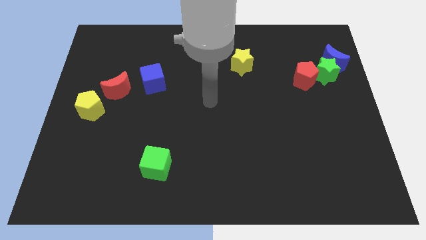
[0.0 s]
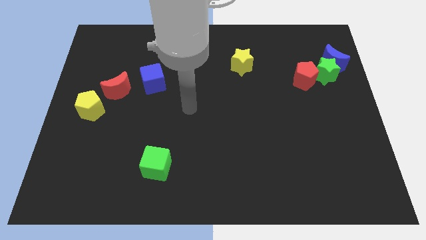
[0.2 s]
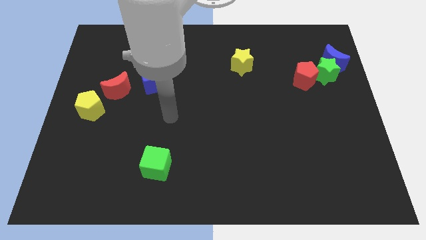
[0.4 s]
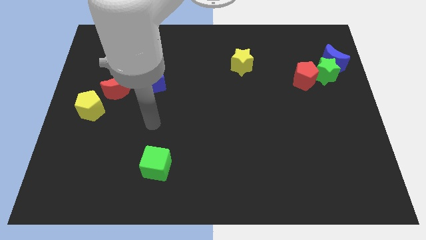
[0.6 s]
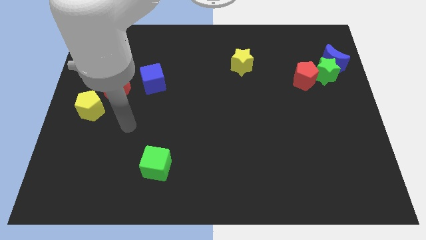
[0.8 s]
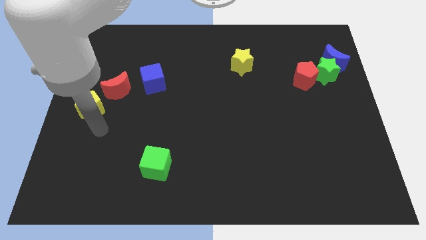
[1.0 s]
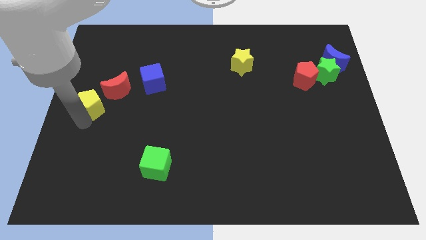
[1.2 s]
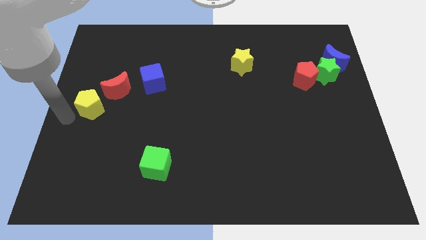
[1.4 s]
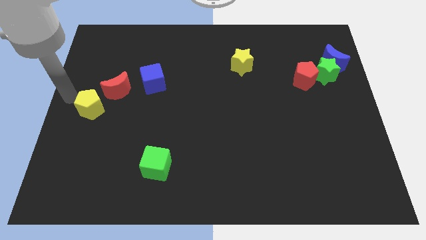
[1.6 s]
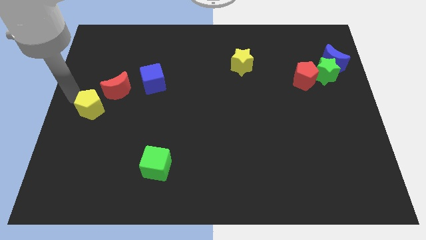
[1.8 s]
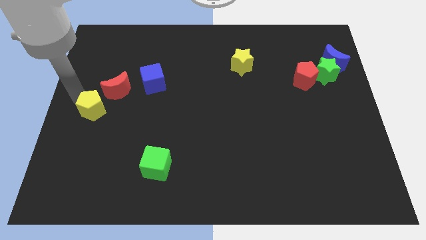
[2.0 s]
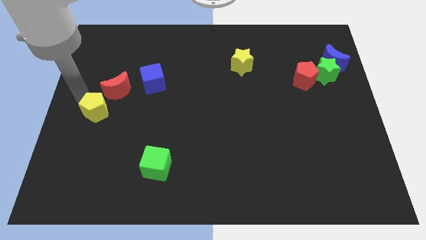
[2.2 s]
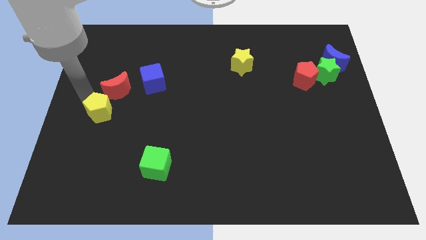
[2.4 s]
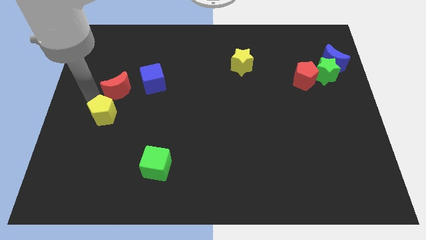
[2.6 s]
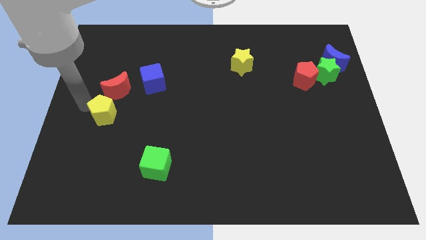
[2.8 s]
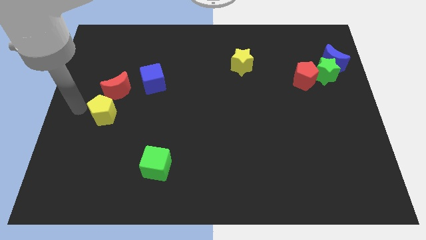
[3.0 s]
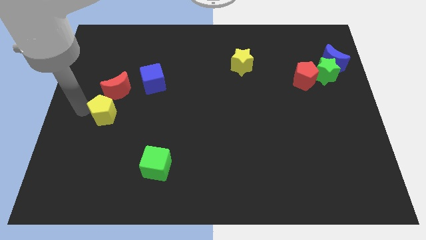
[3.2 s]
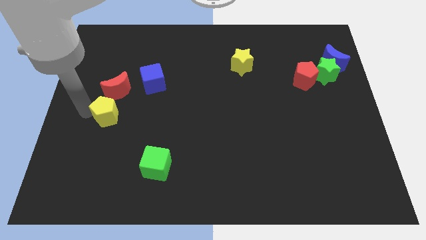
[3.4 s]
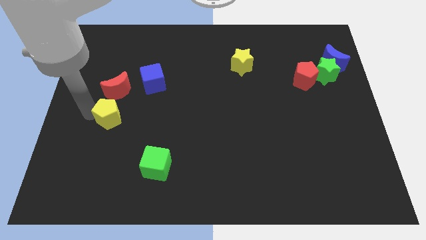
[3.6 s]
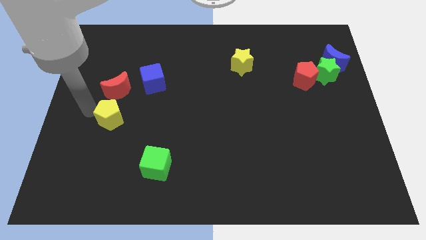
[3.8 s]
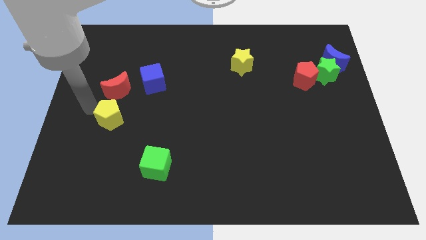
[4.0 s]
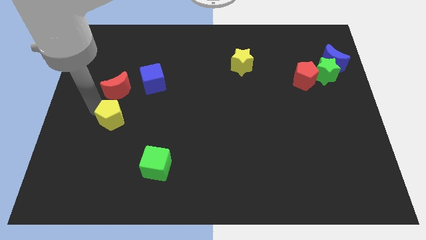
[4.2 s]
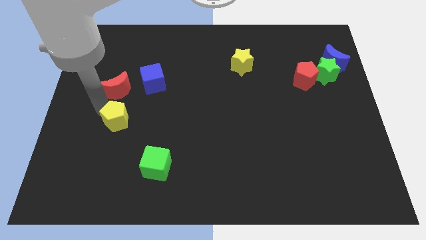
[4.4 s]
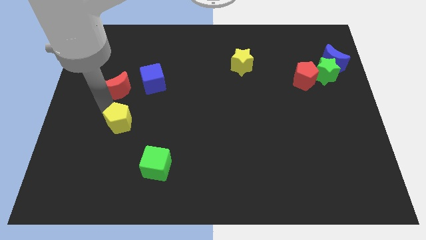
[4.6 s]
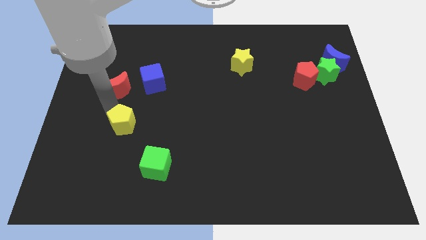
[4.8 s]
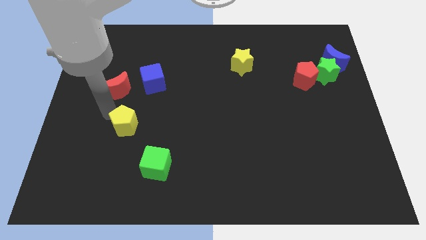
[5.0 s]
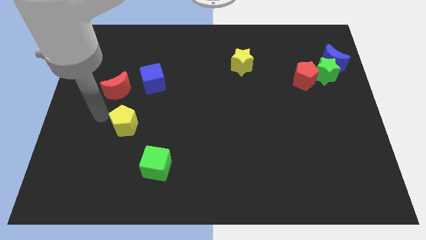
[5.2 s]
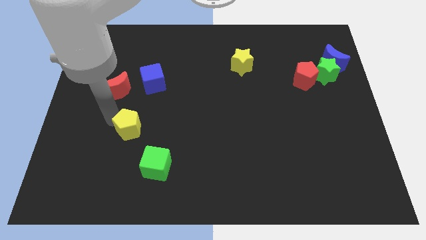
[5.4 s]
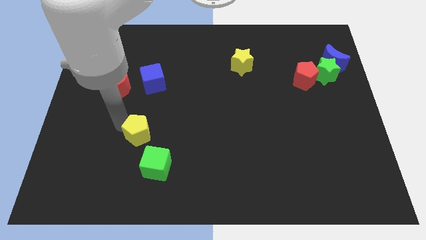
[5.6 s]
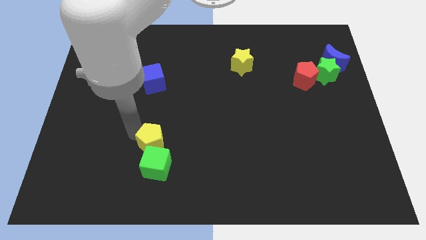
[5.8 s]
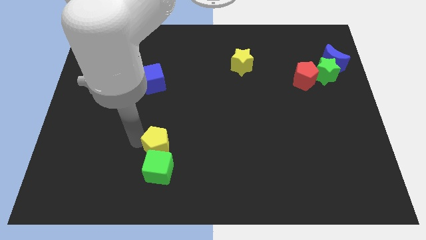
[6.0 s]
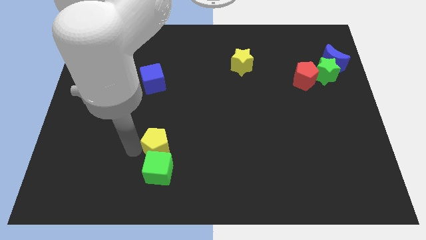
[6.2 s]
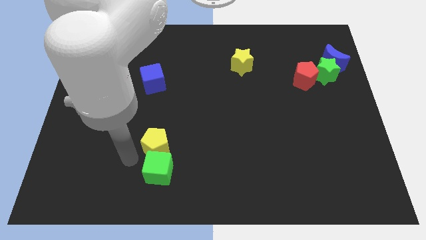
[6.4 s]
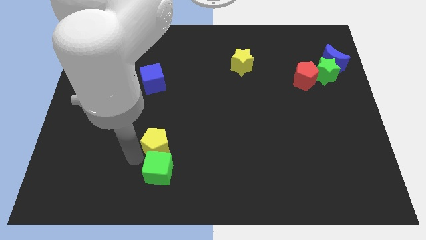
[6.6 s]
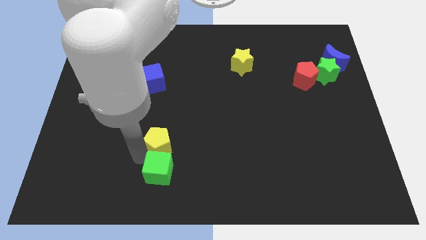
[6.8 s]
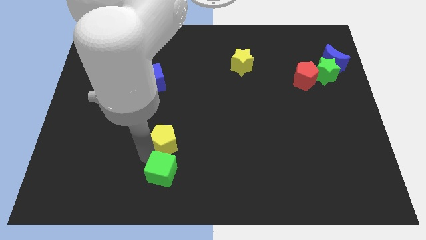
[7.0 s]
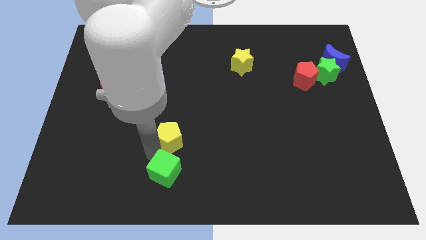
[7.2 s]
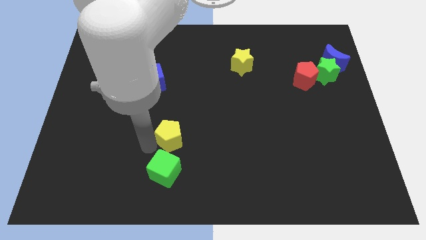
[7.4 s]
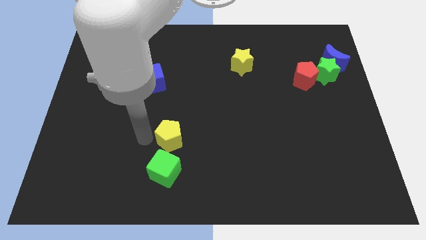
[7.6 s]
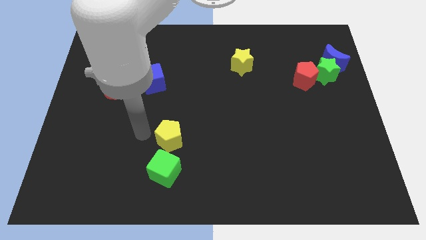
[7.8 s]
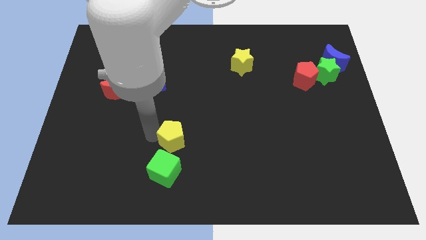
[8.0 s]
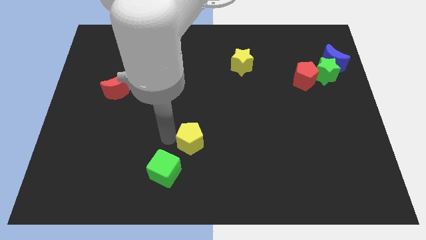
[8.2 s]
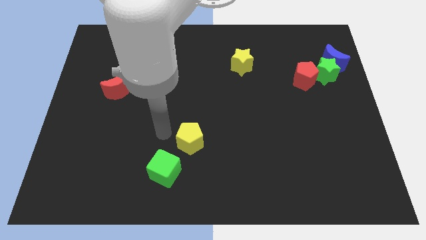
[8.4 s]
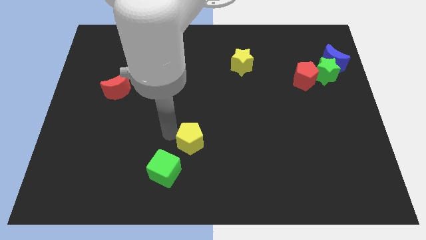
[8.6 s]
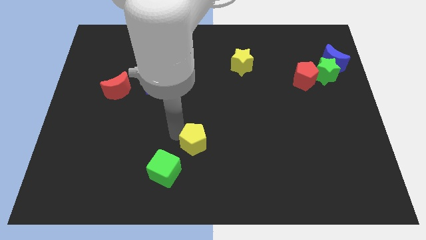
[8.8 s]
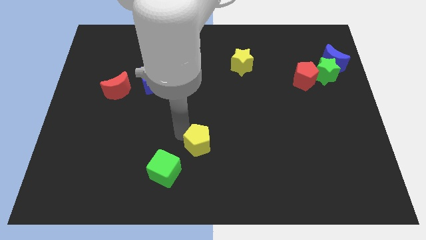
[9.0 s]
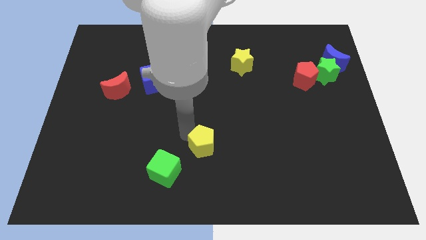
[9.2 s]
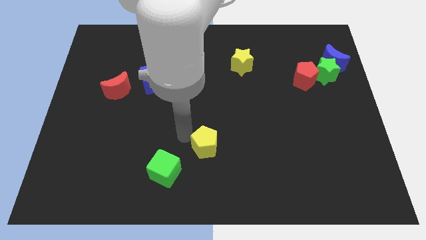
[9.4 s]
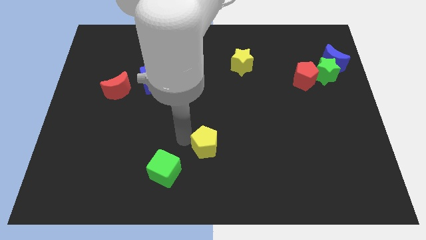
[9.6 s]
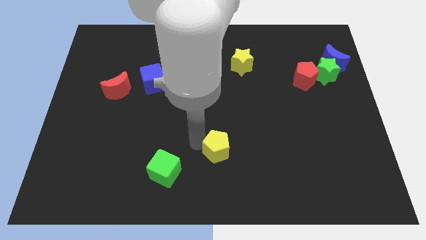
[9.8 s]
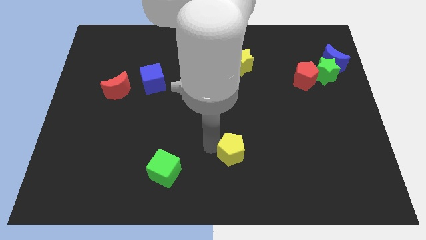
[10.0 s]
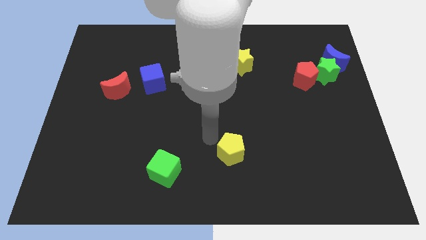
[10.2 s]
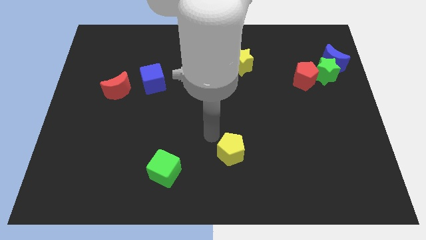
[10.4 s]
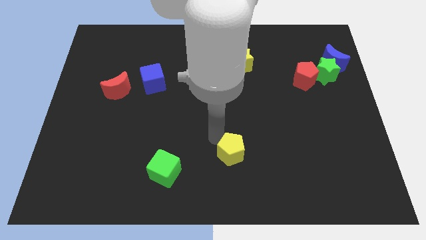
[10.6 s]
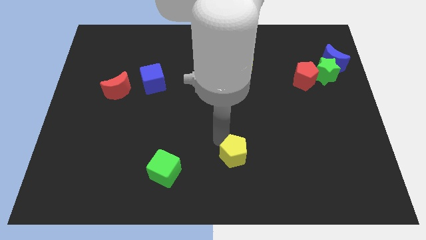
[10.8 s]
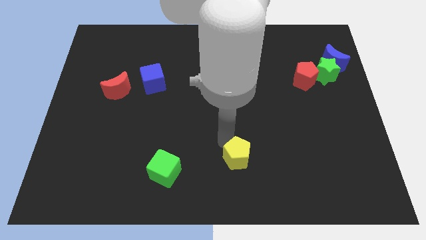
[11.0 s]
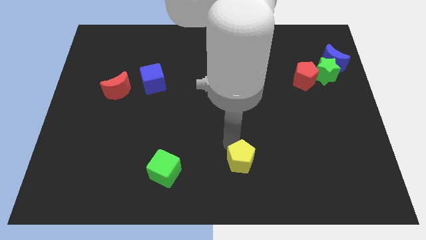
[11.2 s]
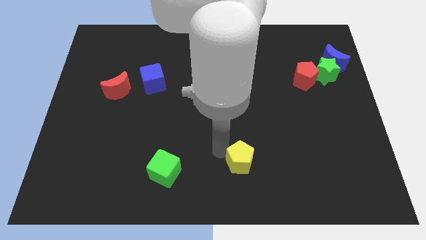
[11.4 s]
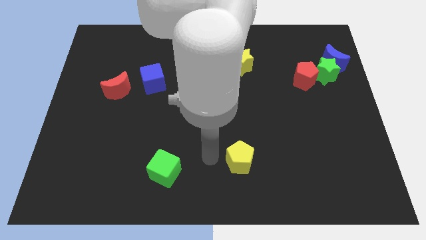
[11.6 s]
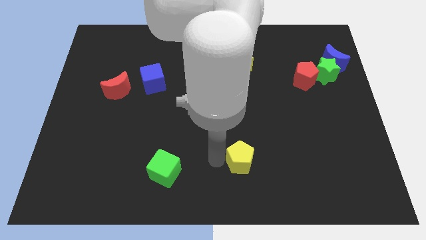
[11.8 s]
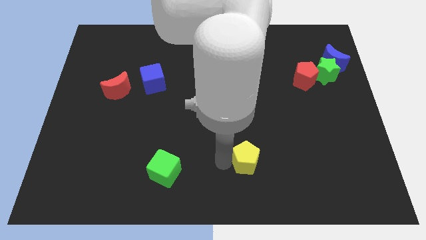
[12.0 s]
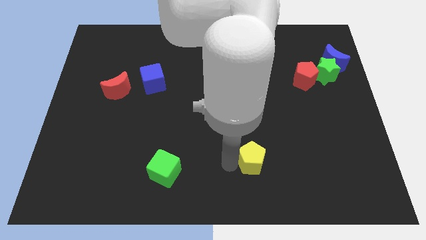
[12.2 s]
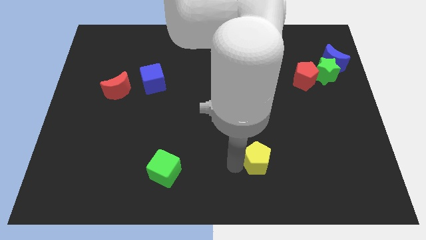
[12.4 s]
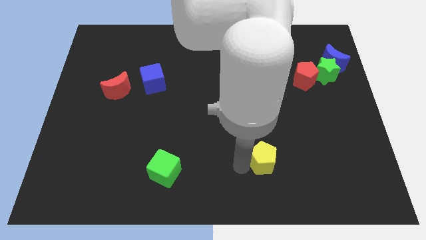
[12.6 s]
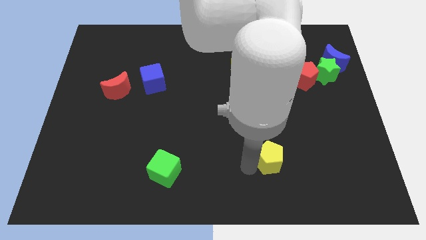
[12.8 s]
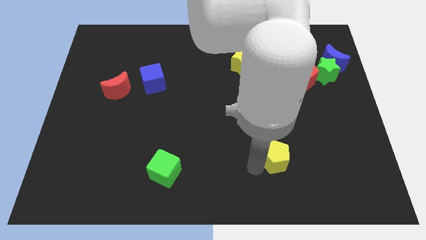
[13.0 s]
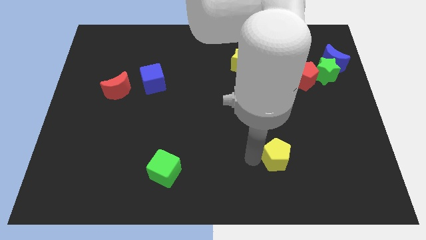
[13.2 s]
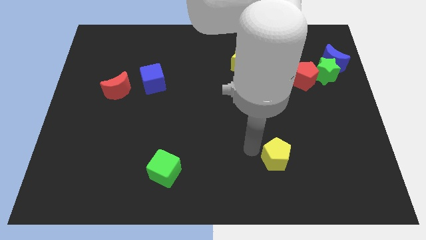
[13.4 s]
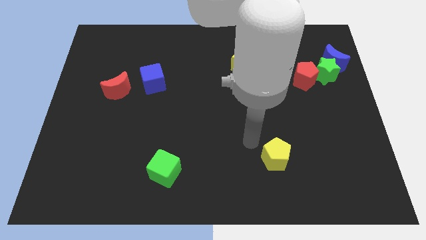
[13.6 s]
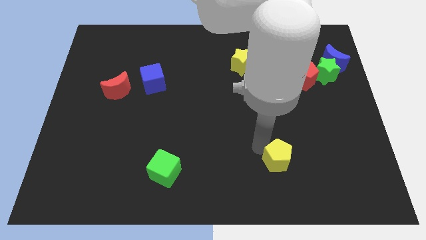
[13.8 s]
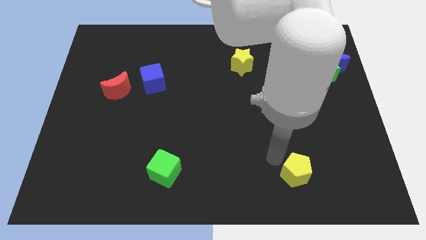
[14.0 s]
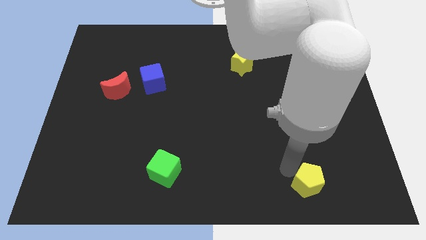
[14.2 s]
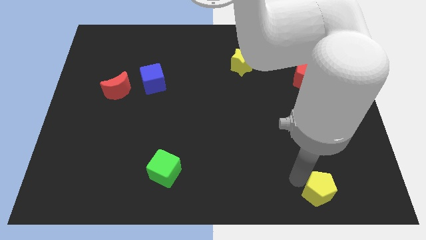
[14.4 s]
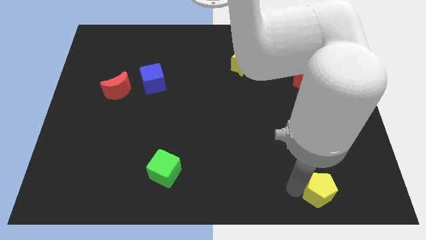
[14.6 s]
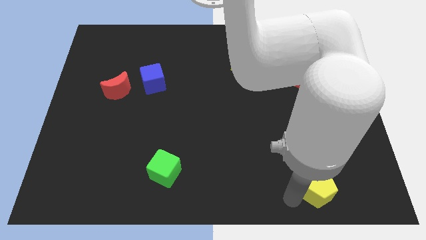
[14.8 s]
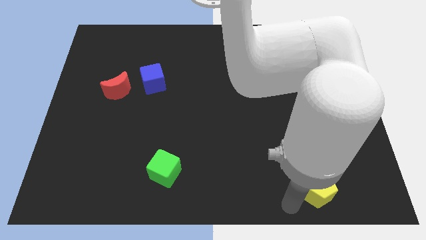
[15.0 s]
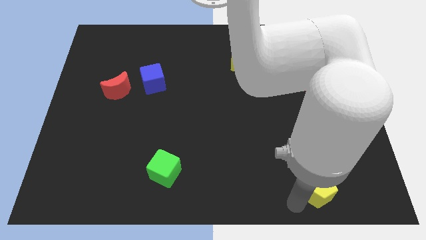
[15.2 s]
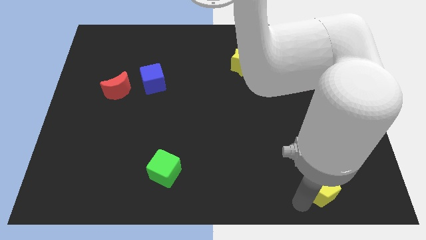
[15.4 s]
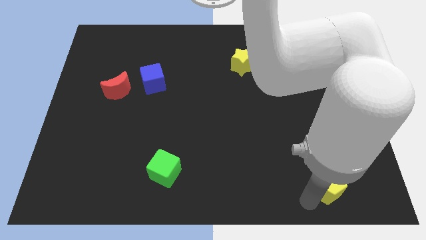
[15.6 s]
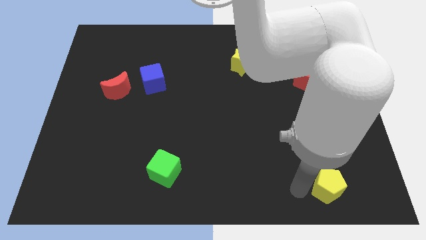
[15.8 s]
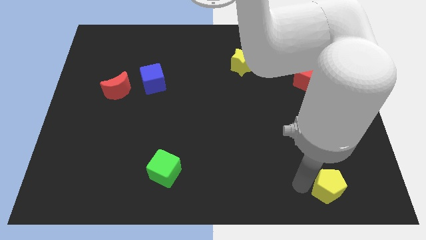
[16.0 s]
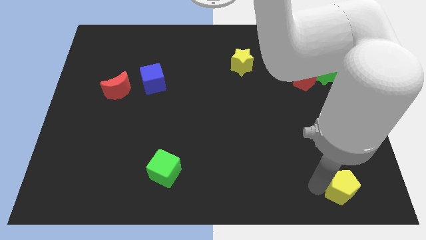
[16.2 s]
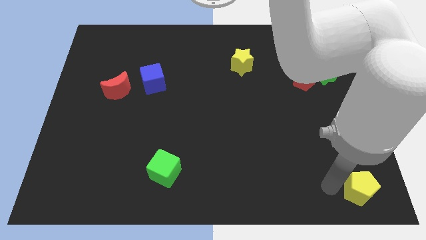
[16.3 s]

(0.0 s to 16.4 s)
put the yellow pentagon to the bottom right corner
